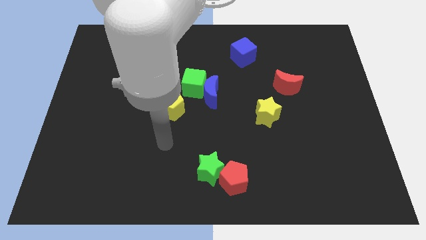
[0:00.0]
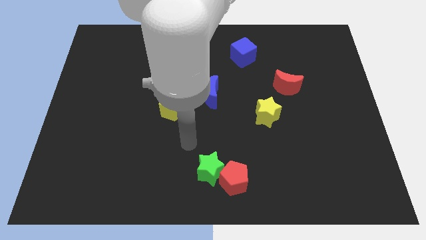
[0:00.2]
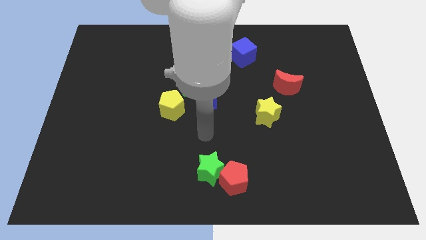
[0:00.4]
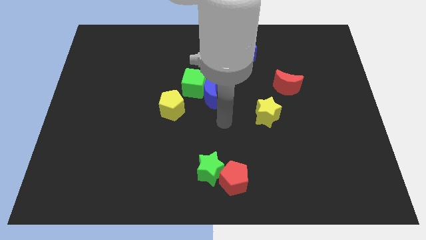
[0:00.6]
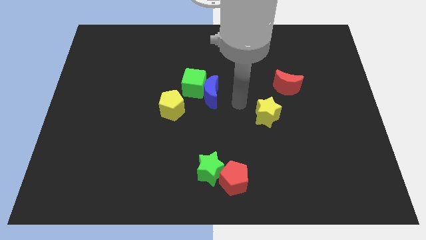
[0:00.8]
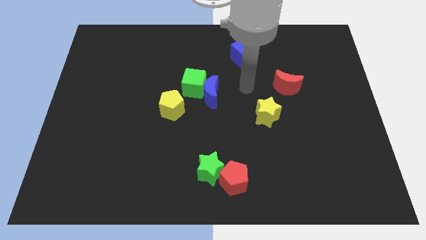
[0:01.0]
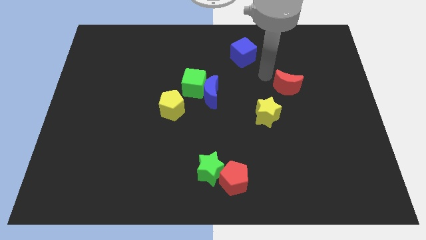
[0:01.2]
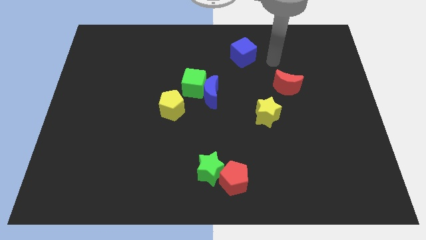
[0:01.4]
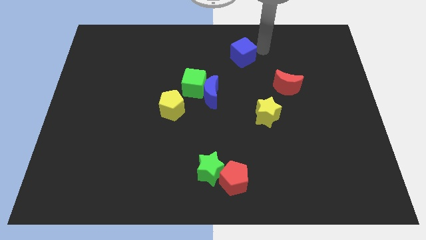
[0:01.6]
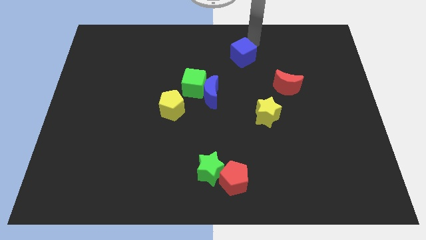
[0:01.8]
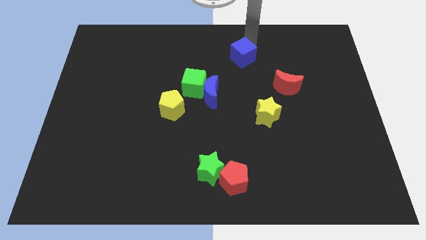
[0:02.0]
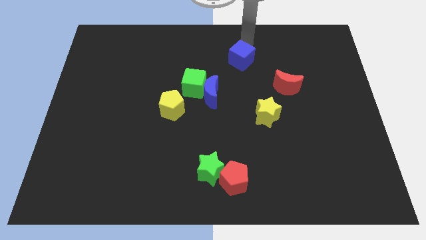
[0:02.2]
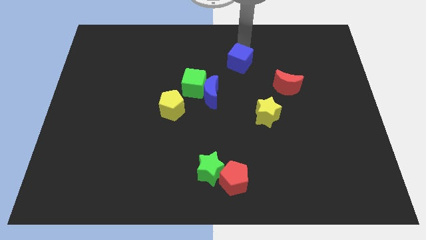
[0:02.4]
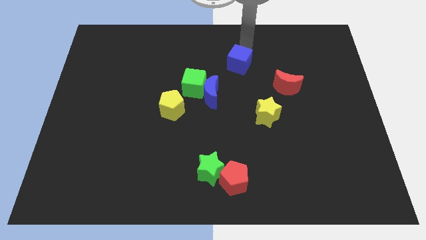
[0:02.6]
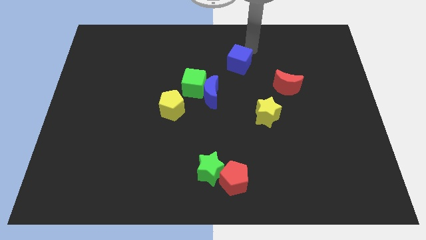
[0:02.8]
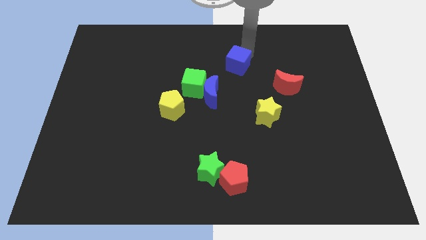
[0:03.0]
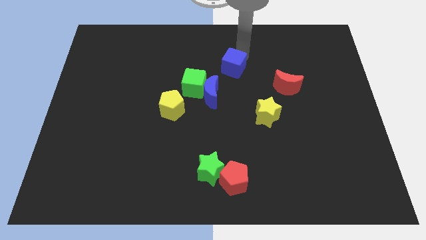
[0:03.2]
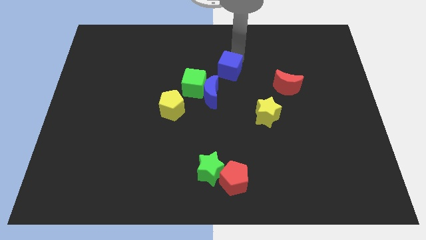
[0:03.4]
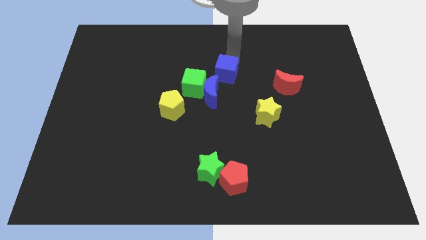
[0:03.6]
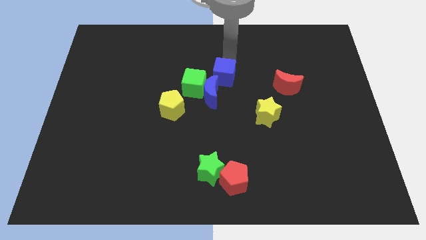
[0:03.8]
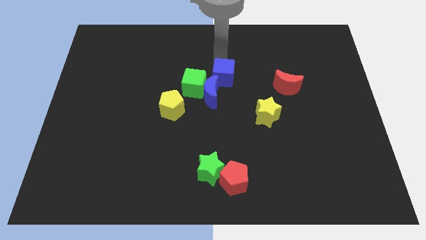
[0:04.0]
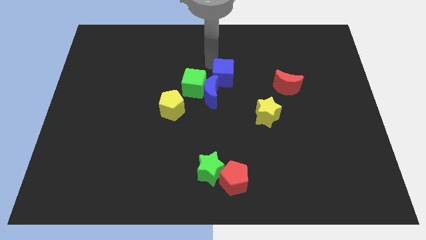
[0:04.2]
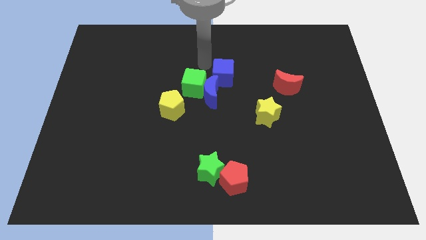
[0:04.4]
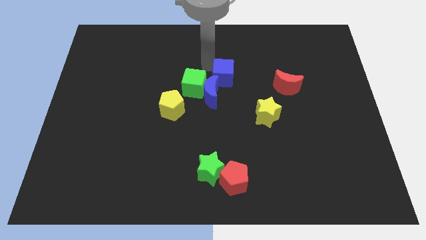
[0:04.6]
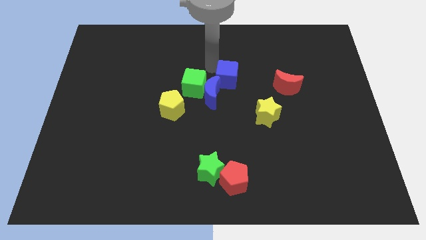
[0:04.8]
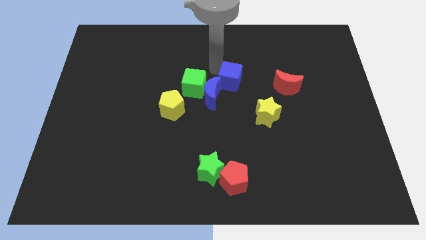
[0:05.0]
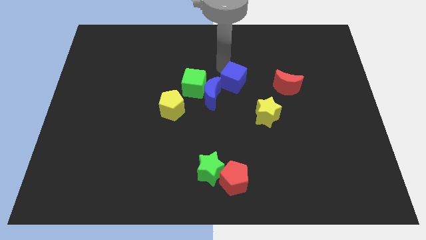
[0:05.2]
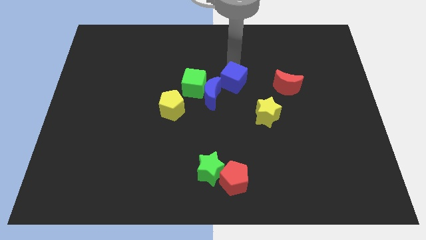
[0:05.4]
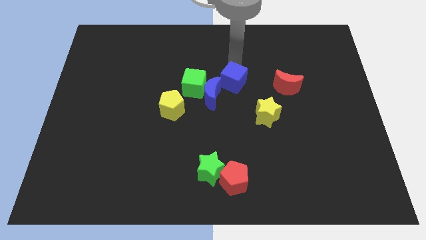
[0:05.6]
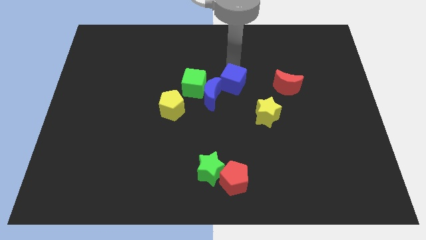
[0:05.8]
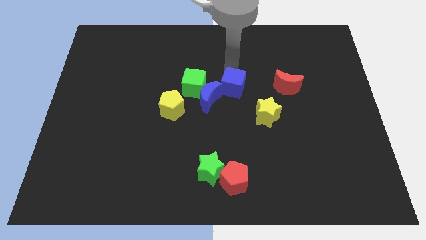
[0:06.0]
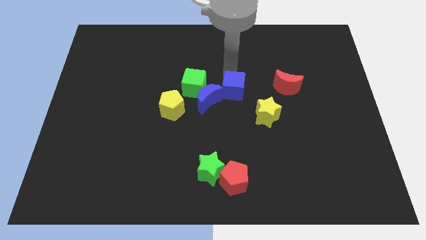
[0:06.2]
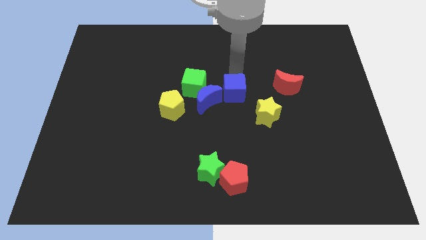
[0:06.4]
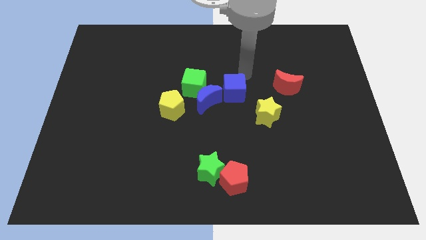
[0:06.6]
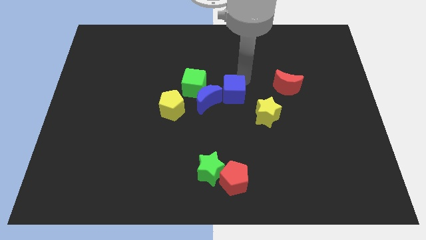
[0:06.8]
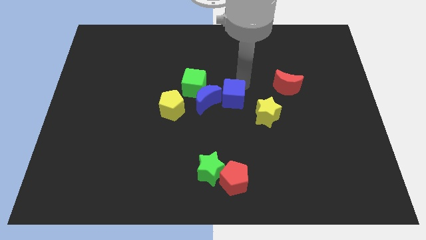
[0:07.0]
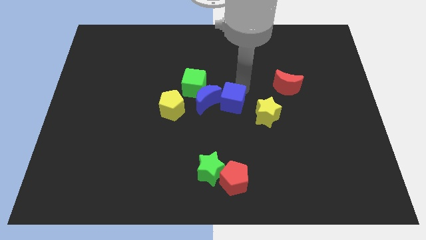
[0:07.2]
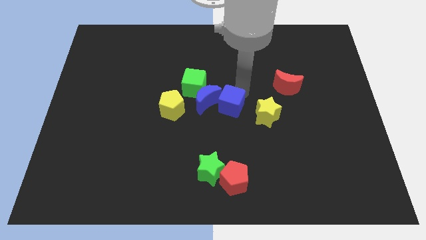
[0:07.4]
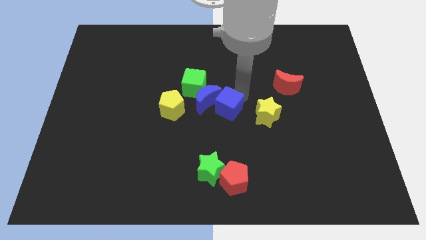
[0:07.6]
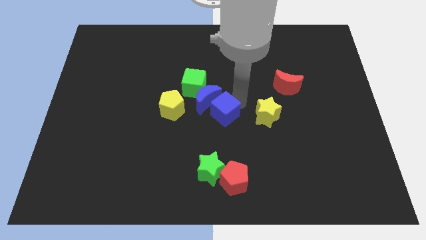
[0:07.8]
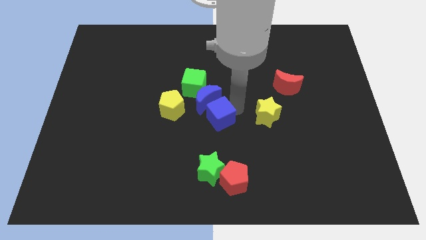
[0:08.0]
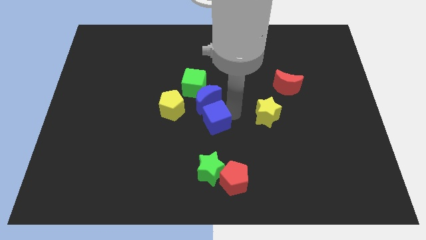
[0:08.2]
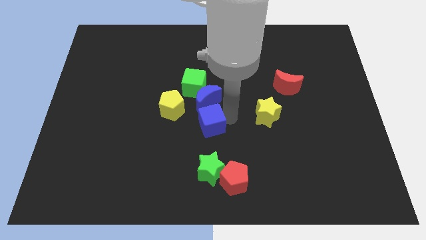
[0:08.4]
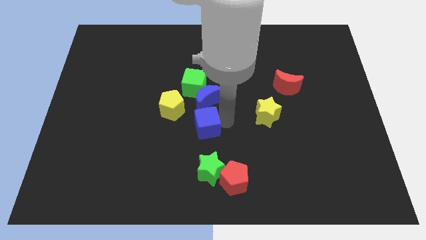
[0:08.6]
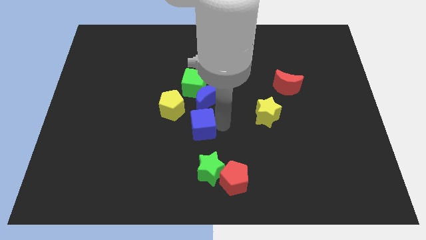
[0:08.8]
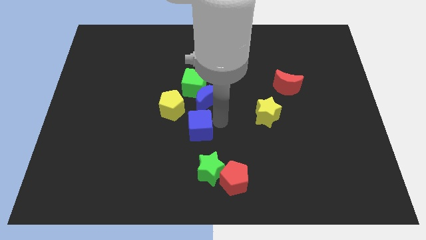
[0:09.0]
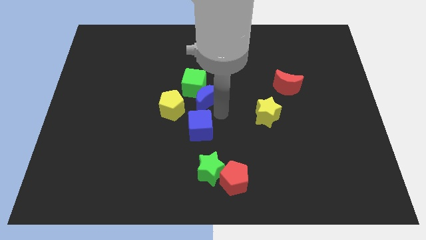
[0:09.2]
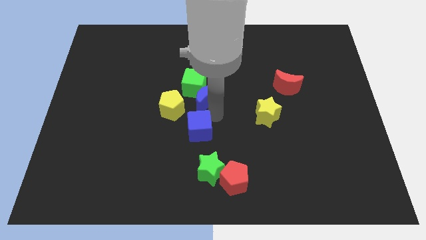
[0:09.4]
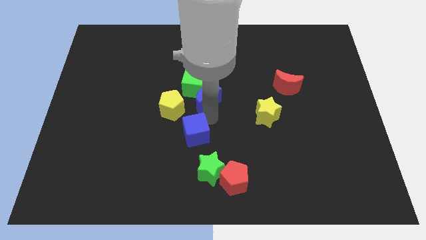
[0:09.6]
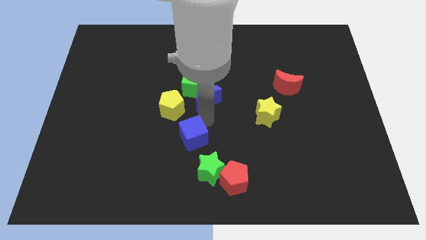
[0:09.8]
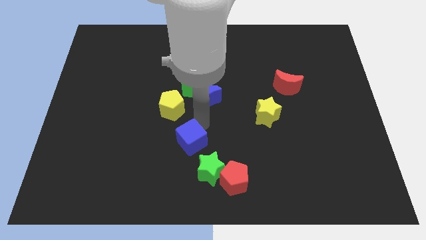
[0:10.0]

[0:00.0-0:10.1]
put the blue cube diagonally up and to the left of the red pentagon

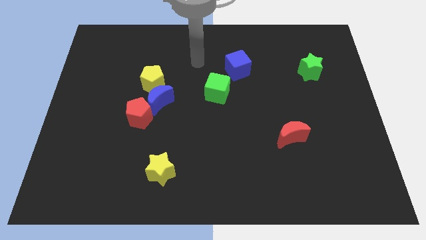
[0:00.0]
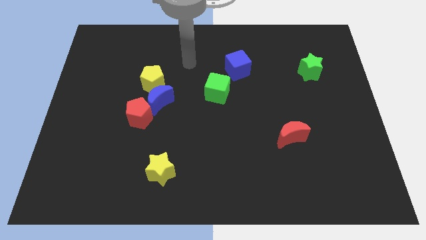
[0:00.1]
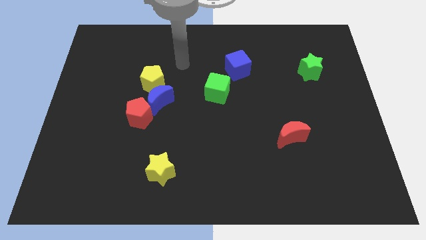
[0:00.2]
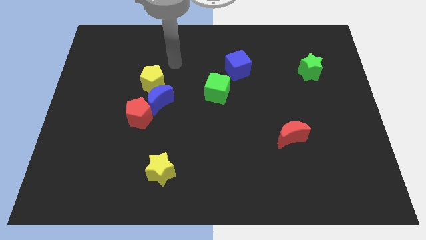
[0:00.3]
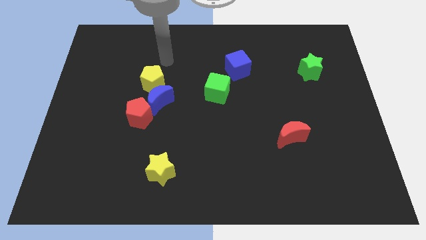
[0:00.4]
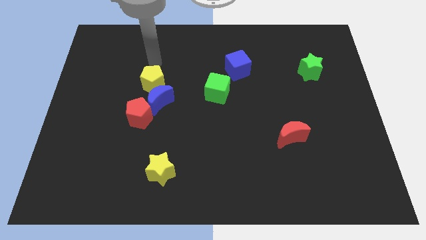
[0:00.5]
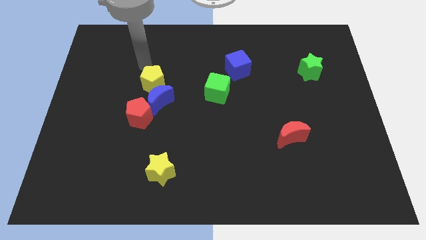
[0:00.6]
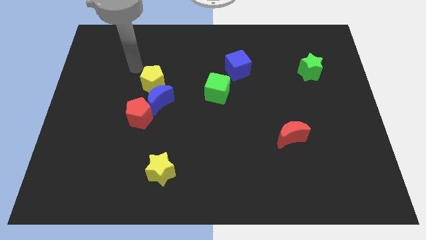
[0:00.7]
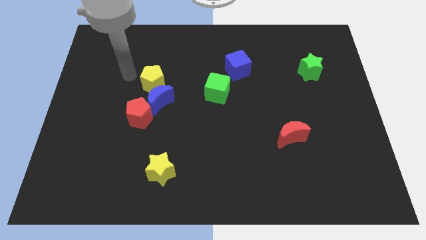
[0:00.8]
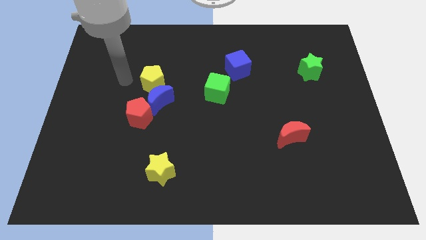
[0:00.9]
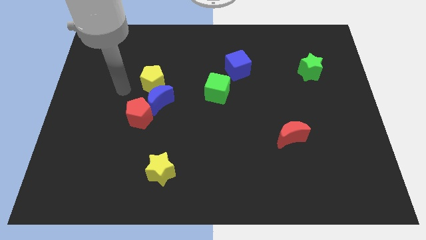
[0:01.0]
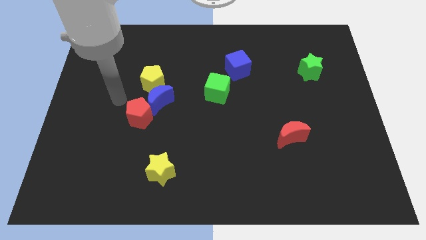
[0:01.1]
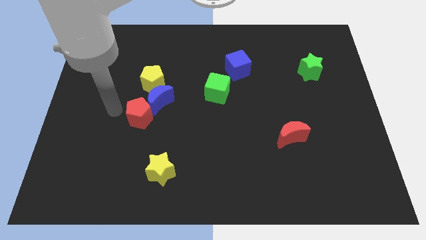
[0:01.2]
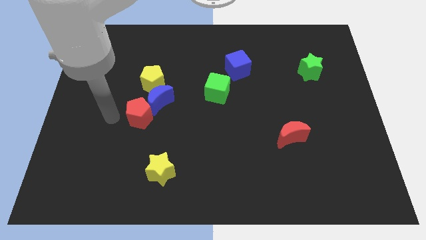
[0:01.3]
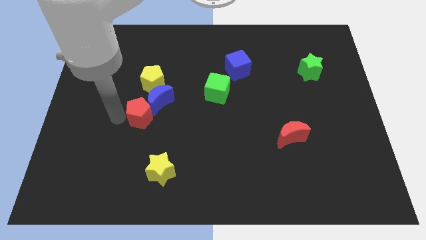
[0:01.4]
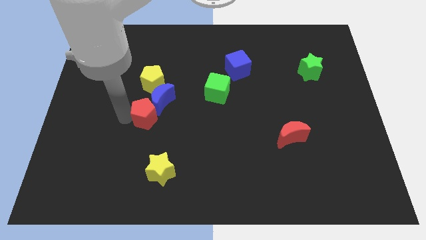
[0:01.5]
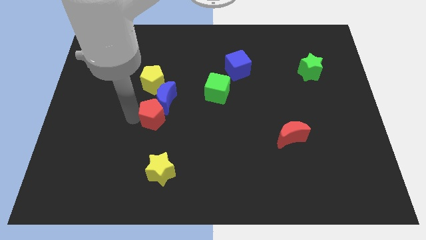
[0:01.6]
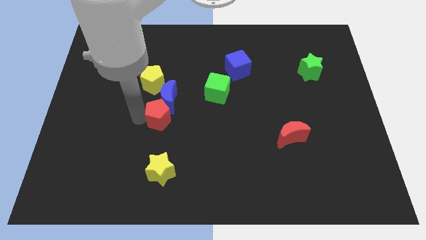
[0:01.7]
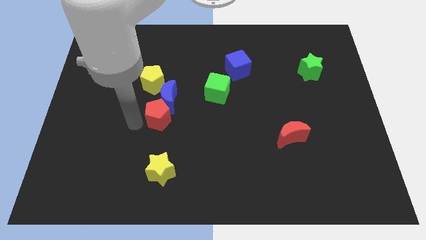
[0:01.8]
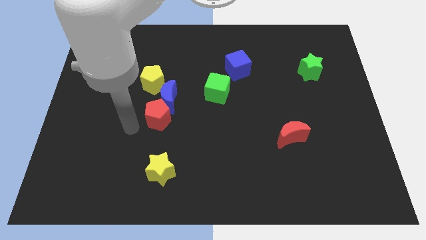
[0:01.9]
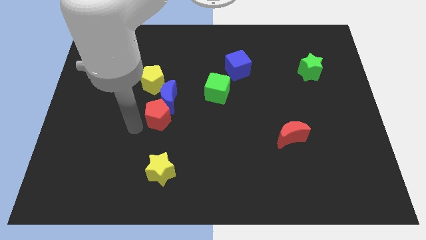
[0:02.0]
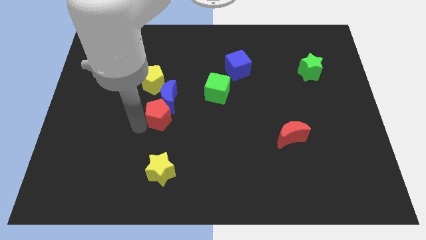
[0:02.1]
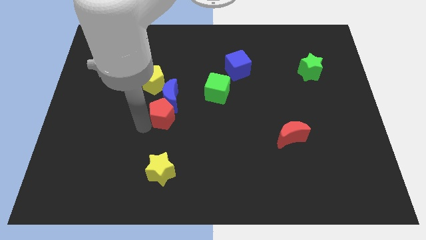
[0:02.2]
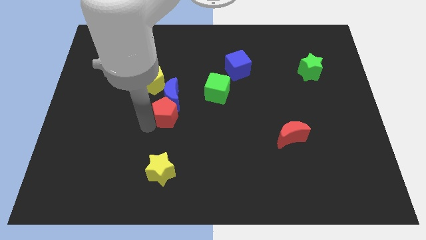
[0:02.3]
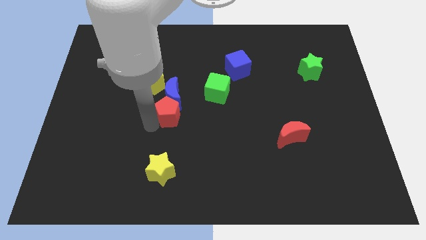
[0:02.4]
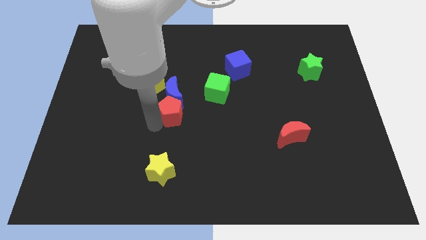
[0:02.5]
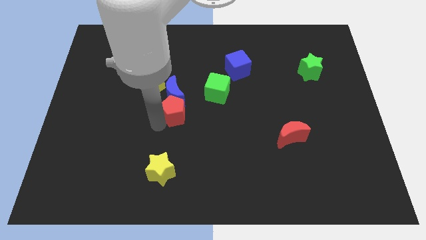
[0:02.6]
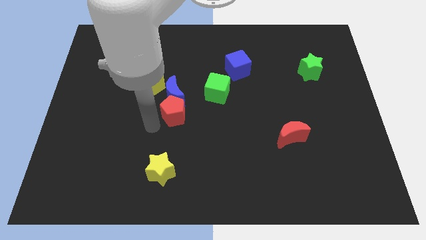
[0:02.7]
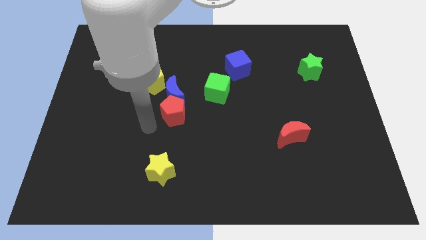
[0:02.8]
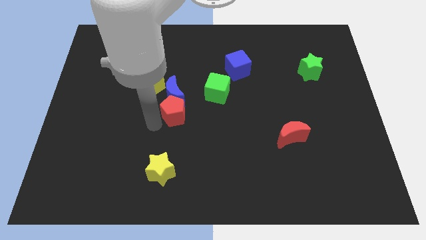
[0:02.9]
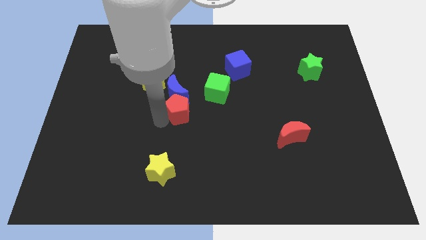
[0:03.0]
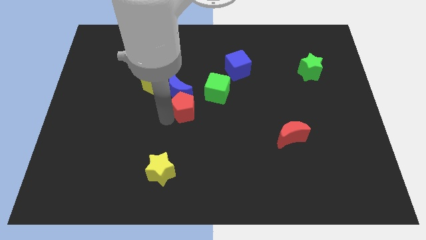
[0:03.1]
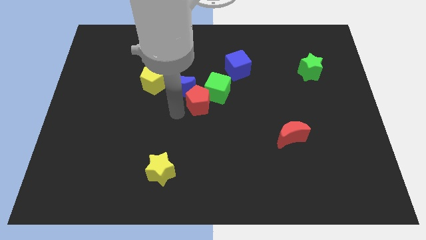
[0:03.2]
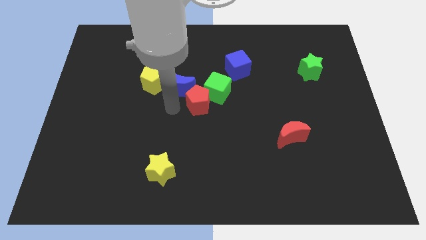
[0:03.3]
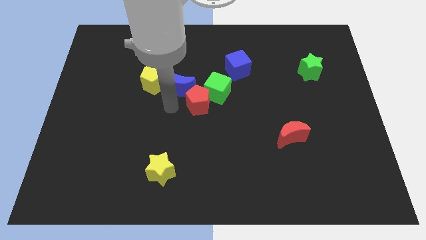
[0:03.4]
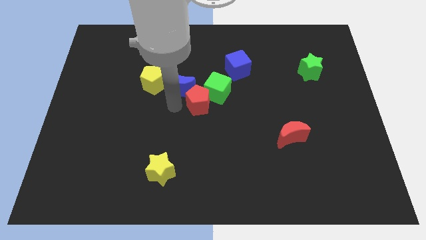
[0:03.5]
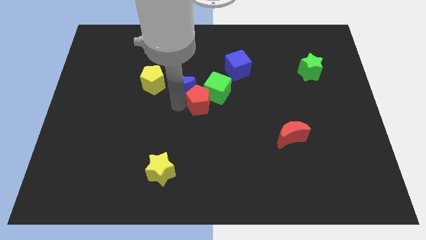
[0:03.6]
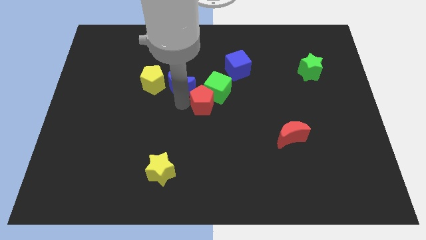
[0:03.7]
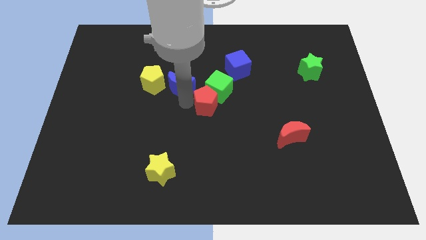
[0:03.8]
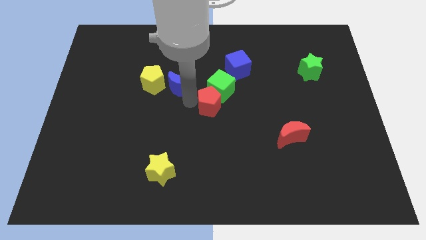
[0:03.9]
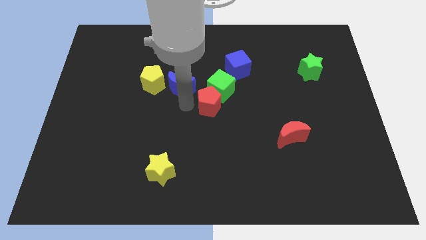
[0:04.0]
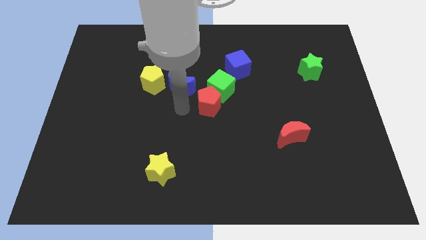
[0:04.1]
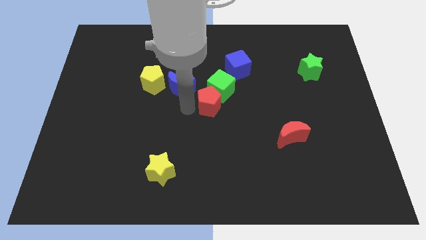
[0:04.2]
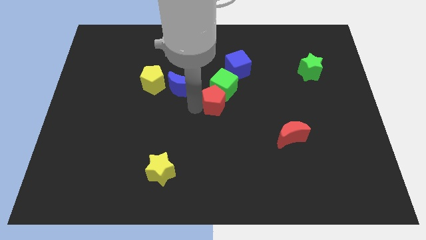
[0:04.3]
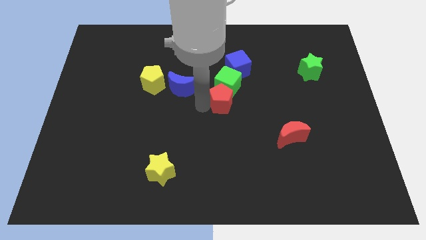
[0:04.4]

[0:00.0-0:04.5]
put the red pentagon to the bottom side of the blue cube
